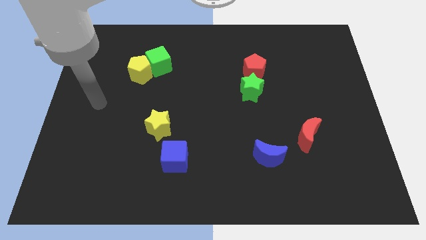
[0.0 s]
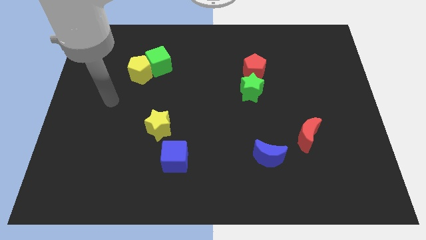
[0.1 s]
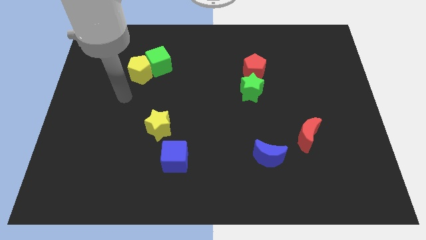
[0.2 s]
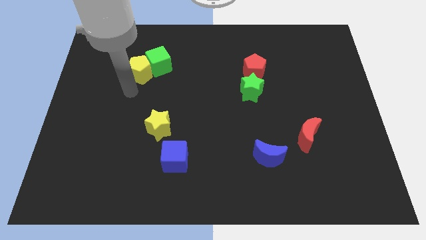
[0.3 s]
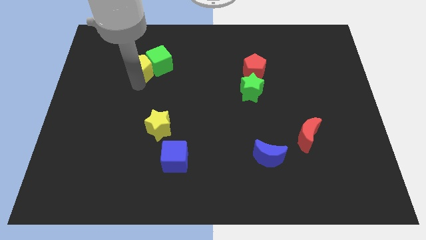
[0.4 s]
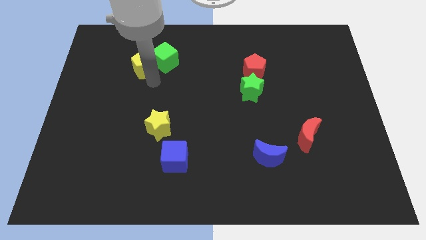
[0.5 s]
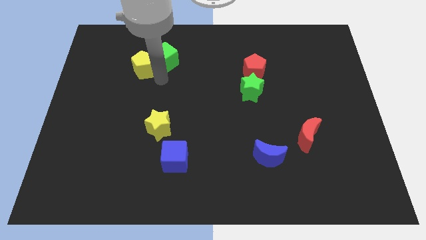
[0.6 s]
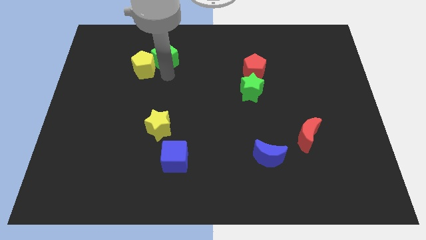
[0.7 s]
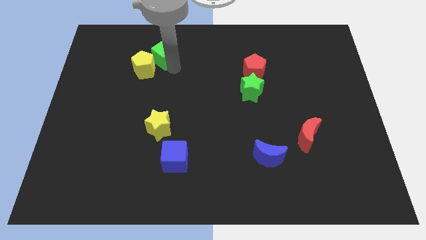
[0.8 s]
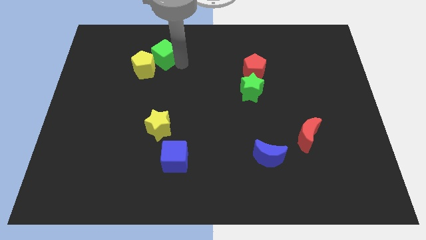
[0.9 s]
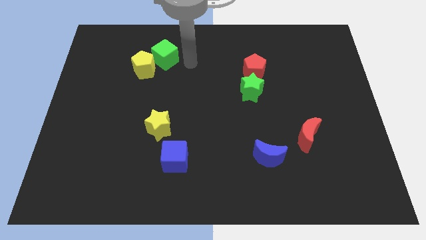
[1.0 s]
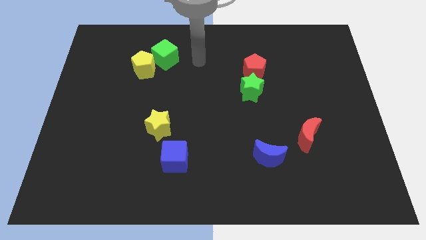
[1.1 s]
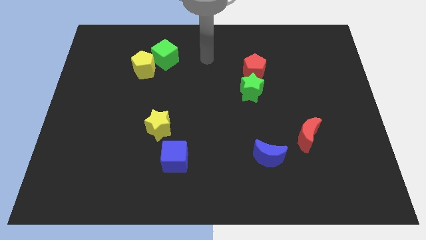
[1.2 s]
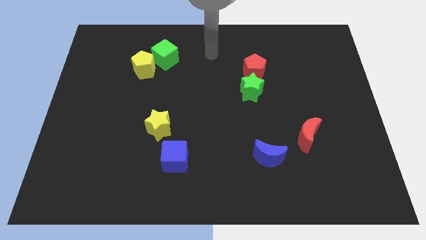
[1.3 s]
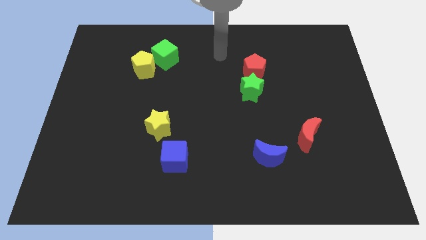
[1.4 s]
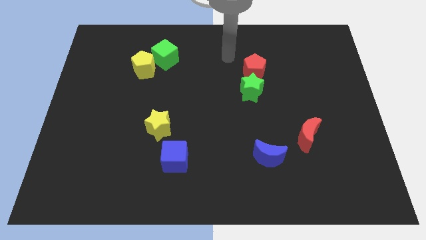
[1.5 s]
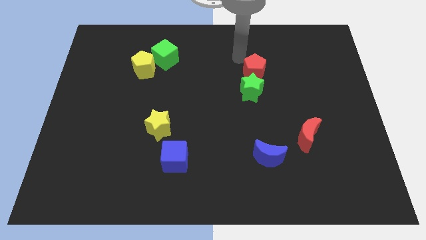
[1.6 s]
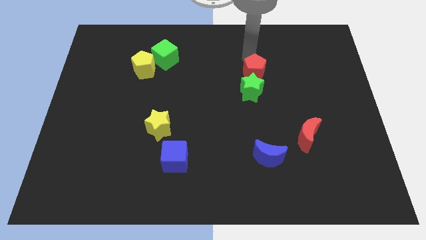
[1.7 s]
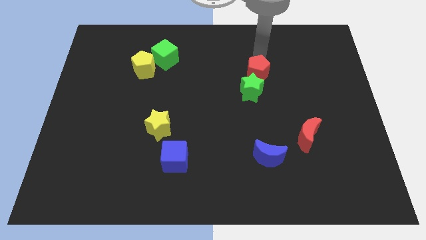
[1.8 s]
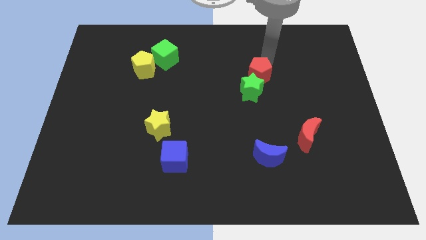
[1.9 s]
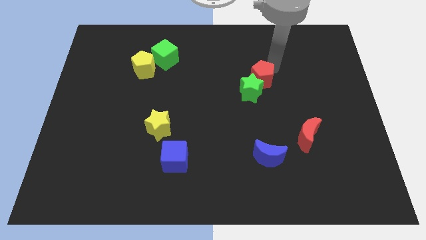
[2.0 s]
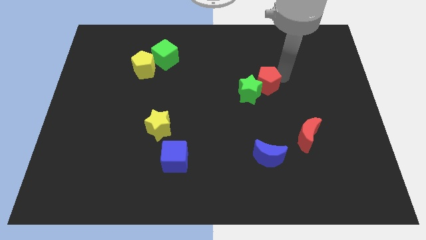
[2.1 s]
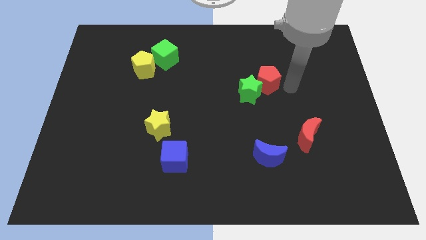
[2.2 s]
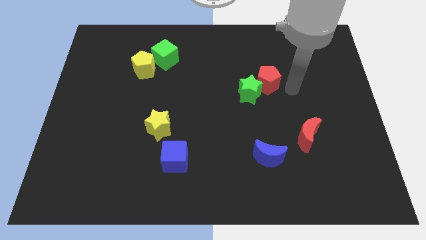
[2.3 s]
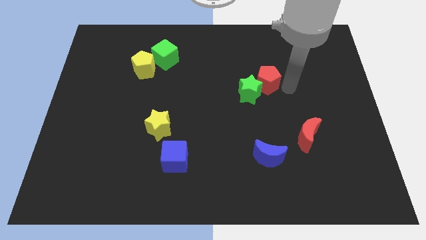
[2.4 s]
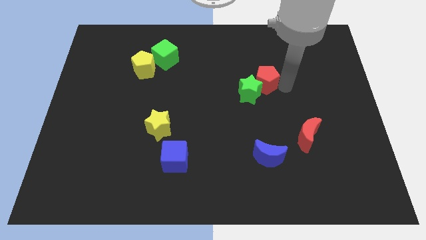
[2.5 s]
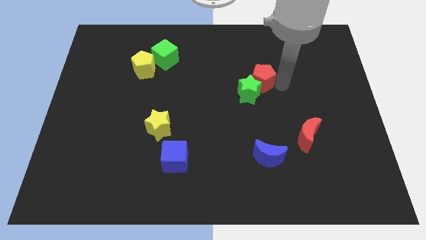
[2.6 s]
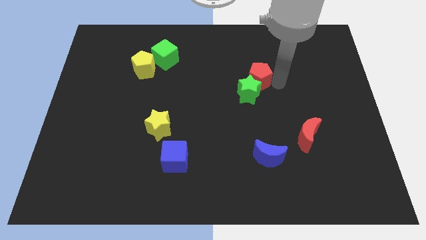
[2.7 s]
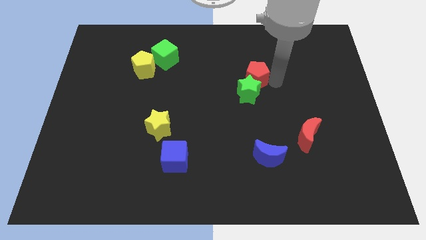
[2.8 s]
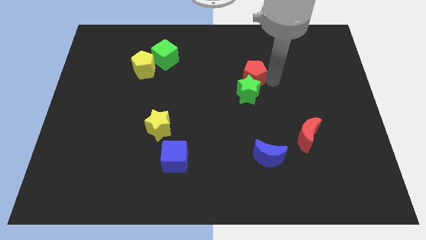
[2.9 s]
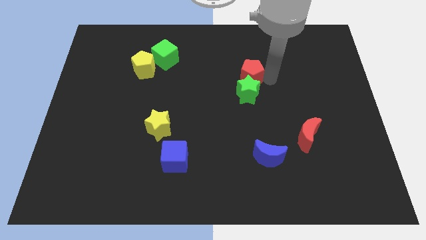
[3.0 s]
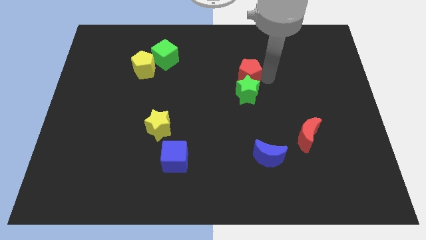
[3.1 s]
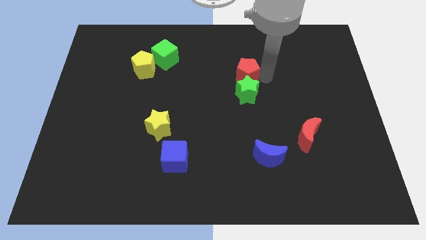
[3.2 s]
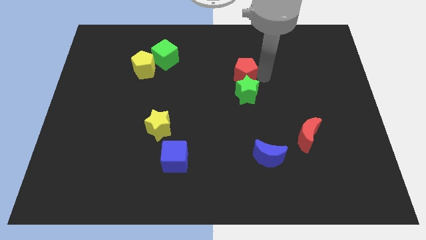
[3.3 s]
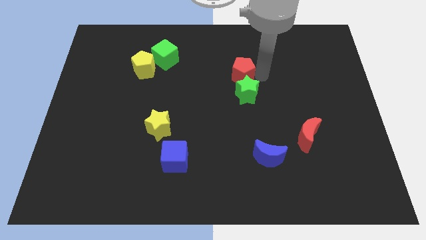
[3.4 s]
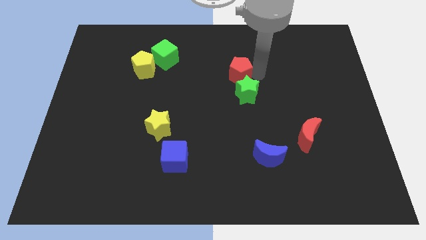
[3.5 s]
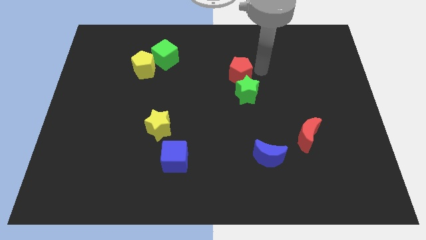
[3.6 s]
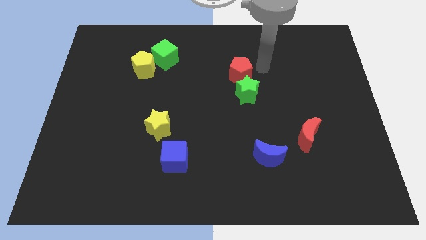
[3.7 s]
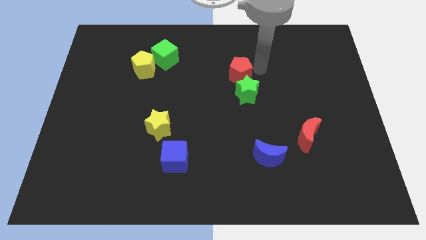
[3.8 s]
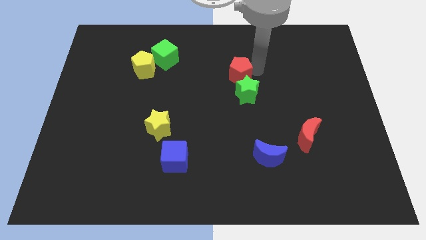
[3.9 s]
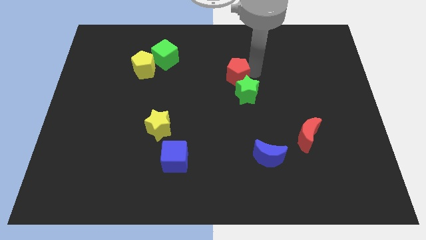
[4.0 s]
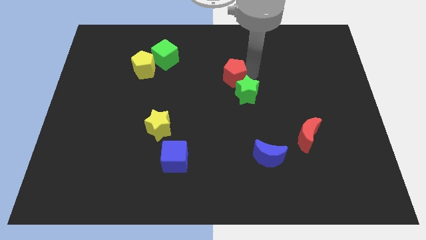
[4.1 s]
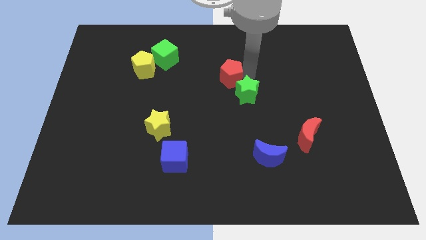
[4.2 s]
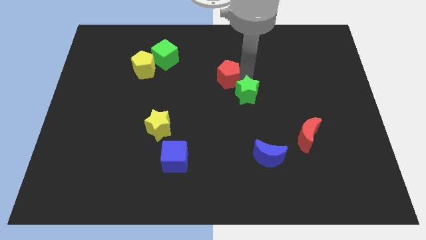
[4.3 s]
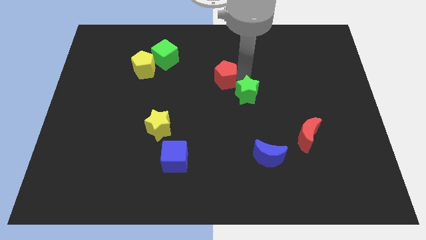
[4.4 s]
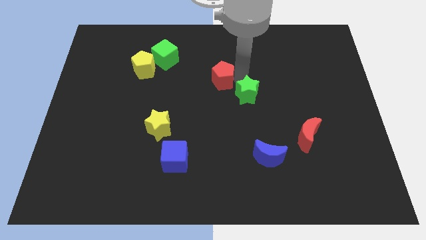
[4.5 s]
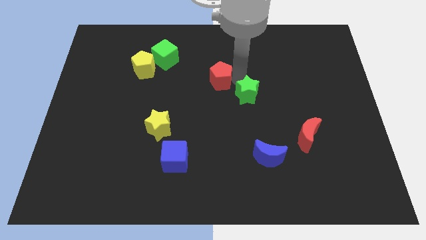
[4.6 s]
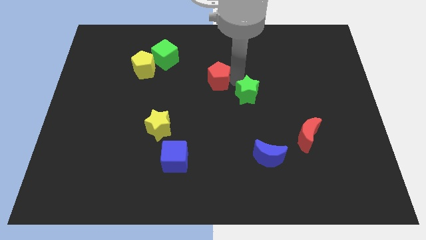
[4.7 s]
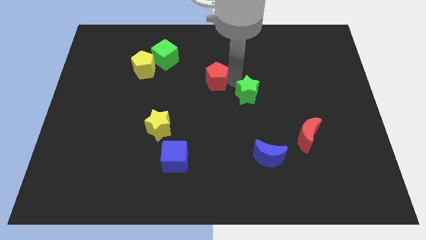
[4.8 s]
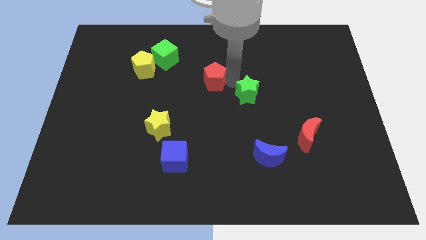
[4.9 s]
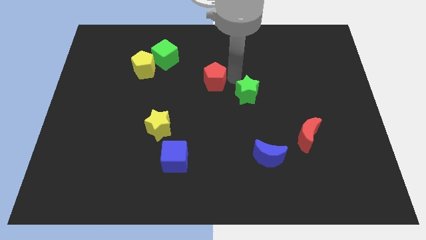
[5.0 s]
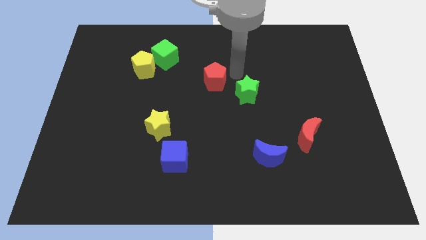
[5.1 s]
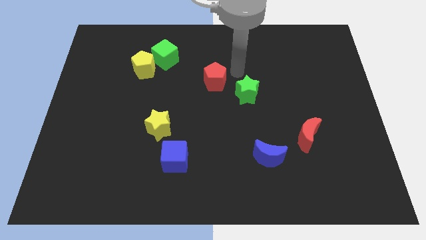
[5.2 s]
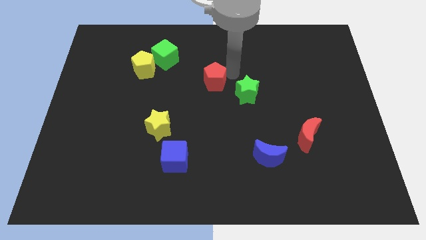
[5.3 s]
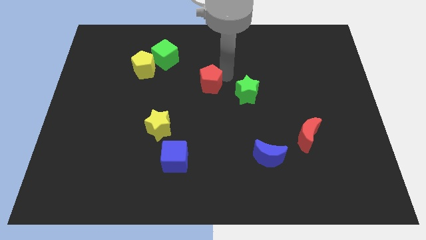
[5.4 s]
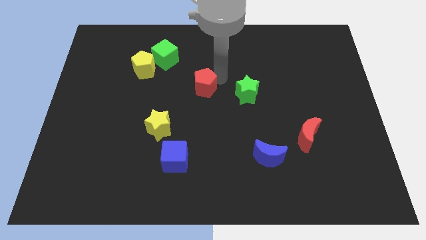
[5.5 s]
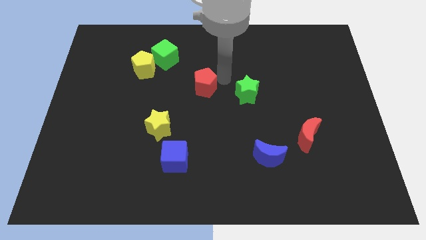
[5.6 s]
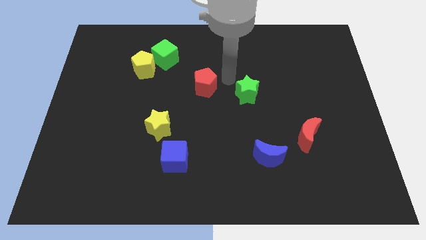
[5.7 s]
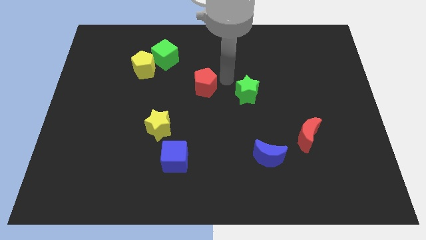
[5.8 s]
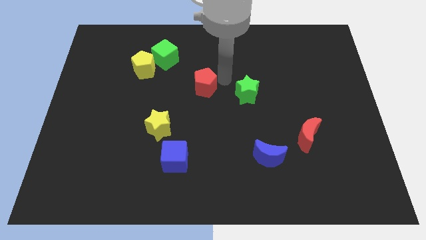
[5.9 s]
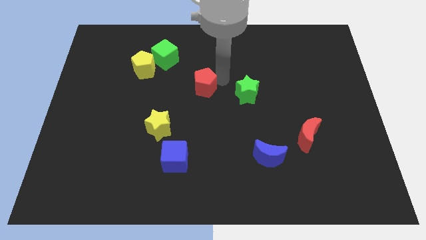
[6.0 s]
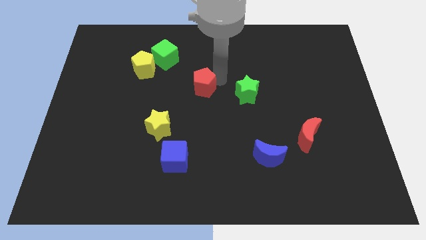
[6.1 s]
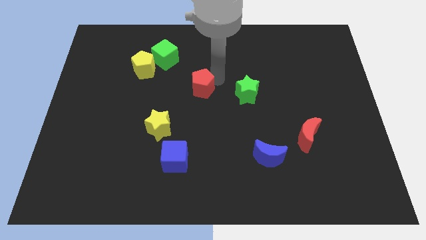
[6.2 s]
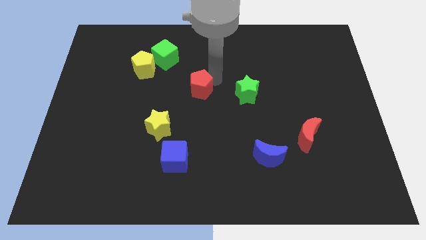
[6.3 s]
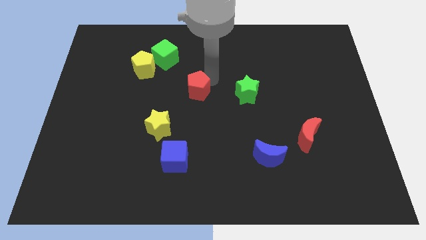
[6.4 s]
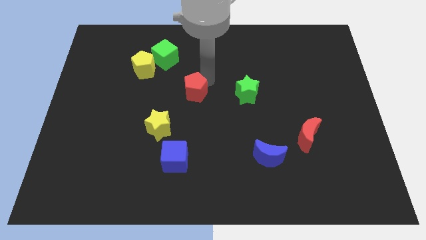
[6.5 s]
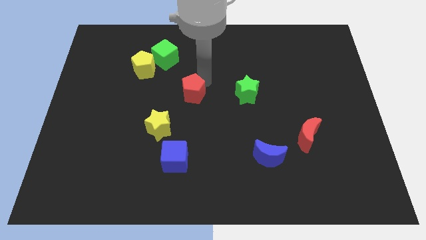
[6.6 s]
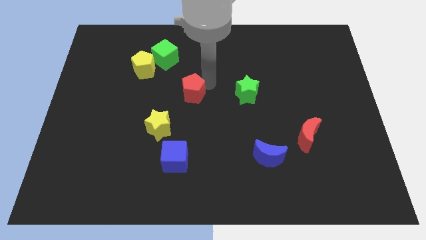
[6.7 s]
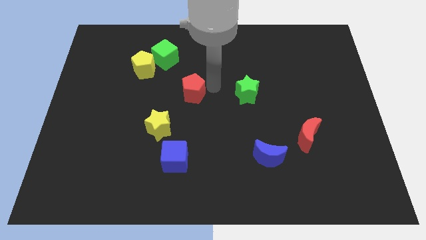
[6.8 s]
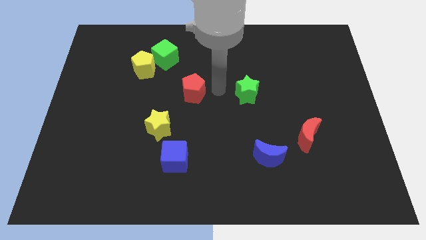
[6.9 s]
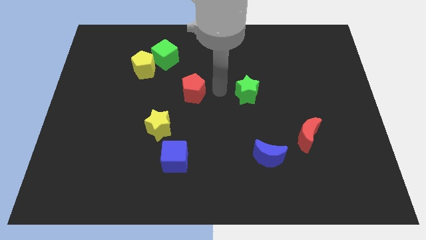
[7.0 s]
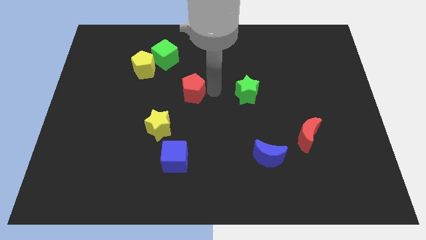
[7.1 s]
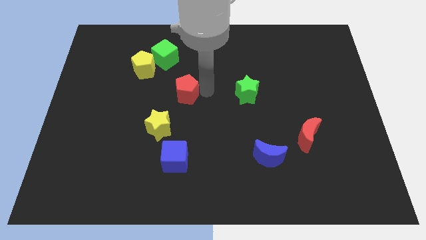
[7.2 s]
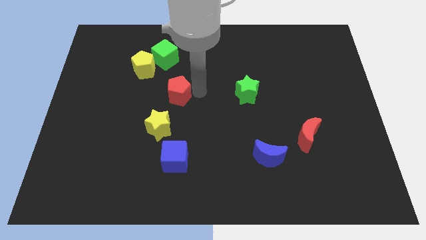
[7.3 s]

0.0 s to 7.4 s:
push the red pentagon to the top of the yellow star
